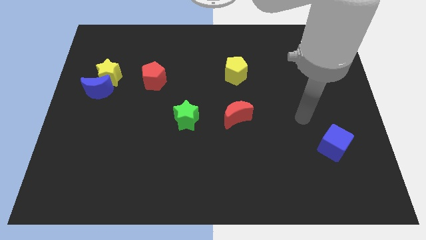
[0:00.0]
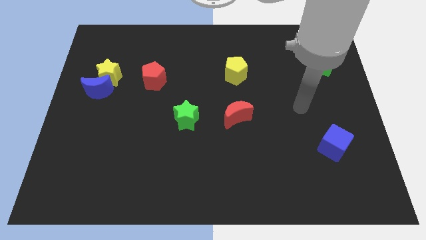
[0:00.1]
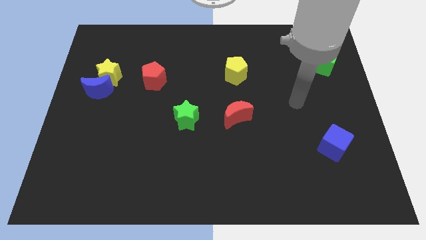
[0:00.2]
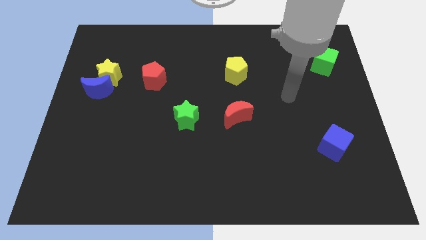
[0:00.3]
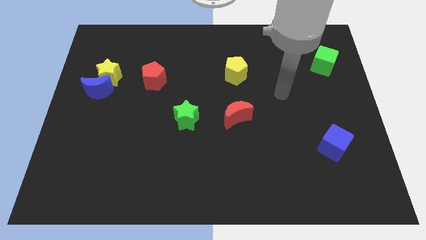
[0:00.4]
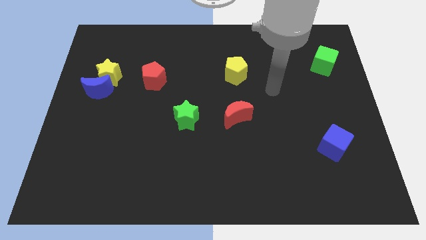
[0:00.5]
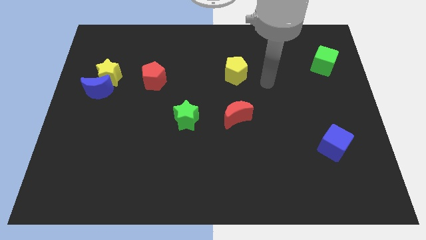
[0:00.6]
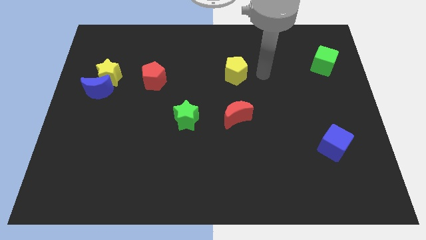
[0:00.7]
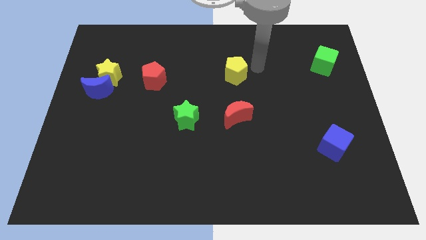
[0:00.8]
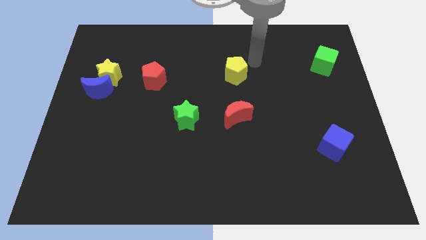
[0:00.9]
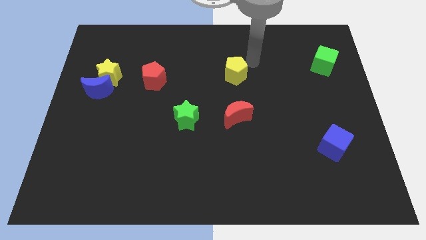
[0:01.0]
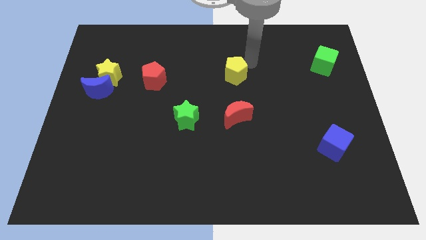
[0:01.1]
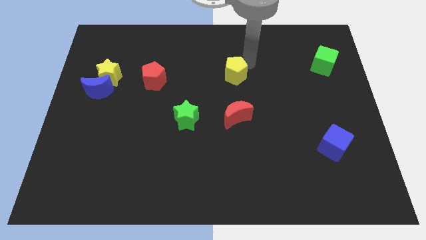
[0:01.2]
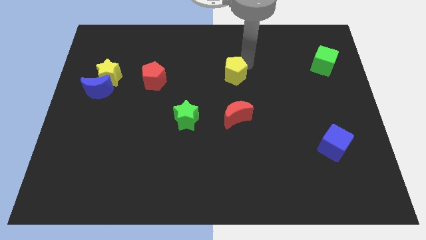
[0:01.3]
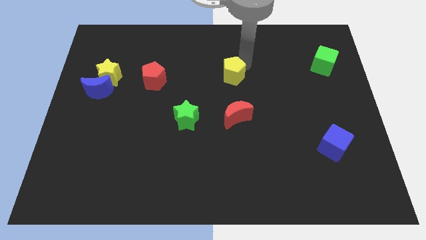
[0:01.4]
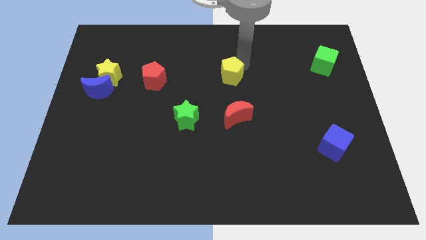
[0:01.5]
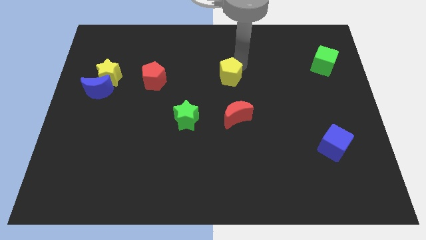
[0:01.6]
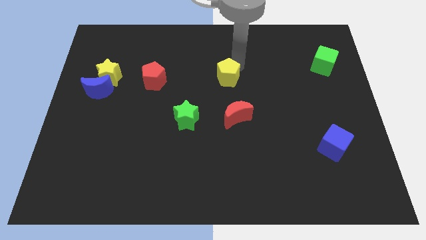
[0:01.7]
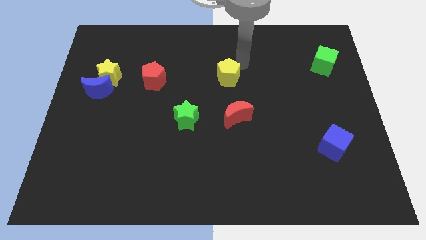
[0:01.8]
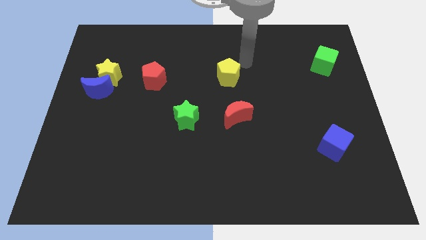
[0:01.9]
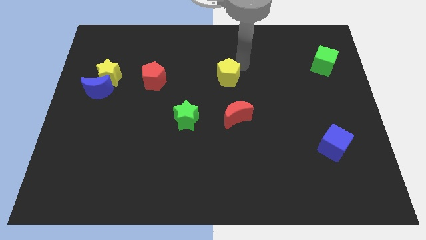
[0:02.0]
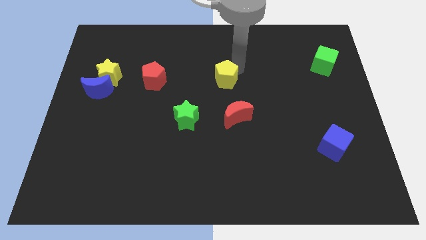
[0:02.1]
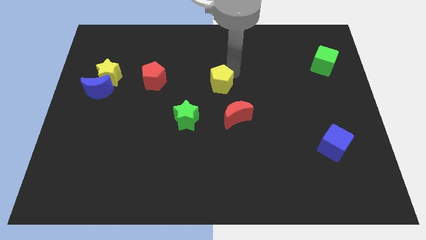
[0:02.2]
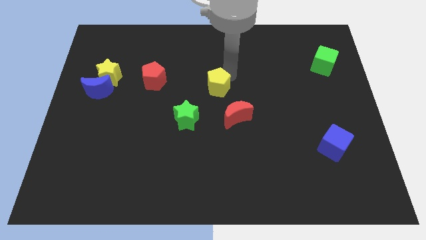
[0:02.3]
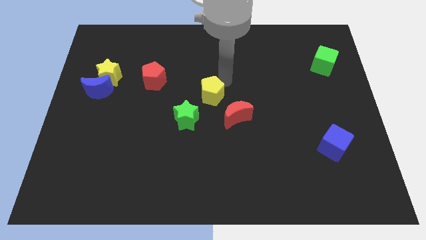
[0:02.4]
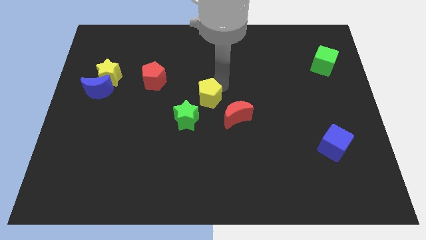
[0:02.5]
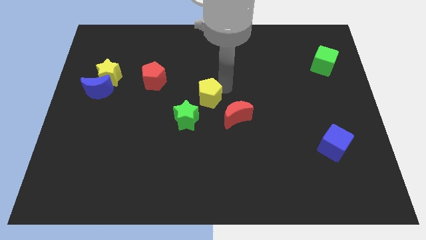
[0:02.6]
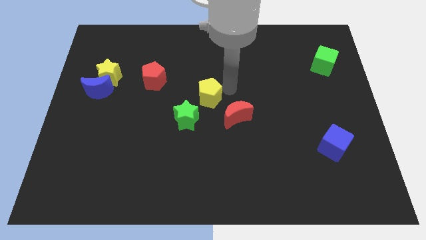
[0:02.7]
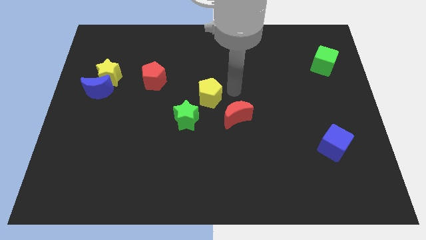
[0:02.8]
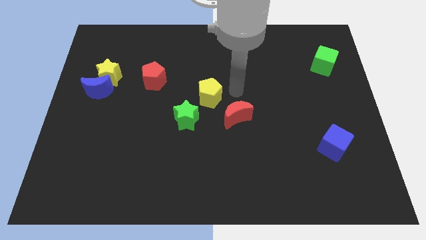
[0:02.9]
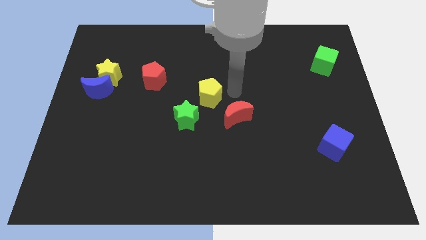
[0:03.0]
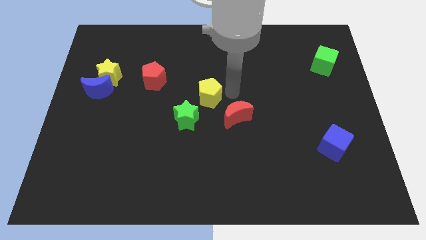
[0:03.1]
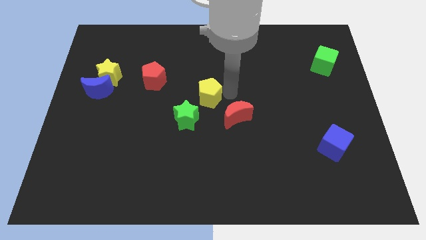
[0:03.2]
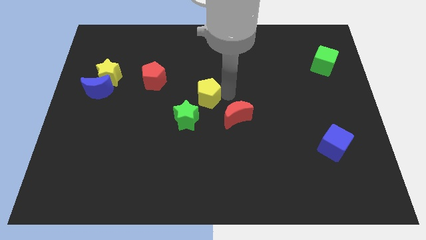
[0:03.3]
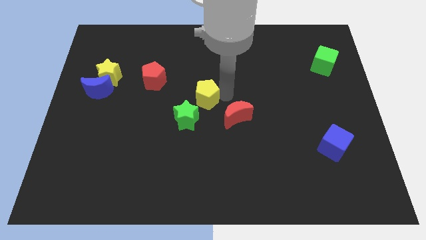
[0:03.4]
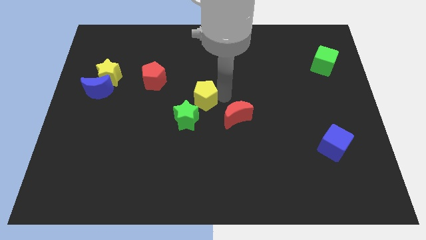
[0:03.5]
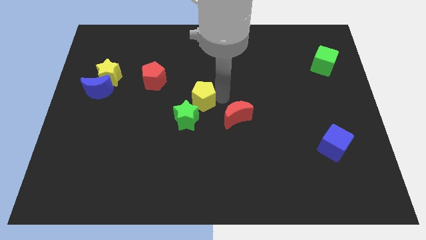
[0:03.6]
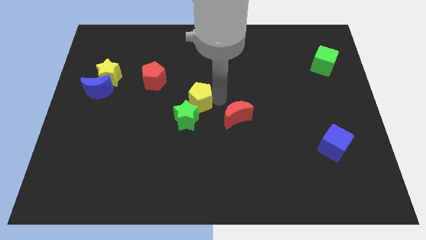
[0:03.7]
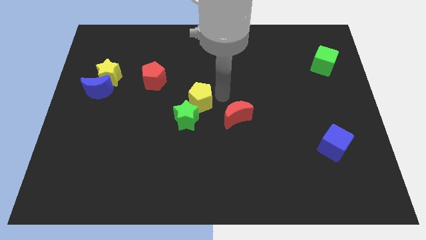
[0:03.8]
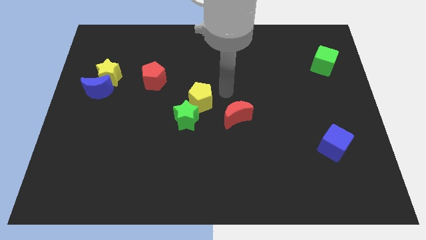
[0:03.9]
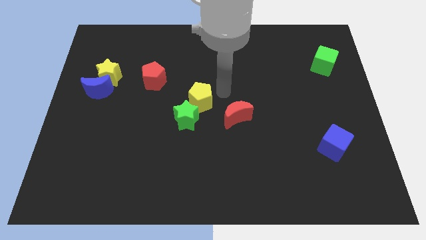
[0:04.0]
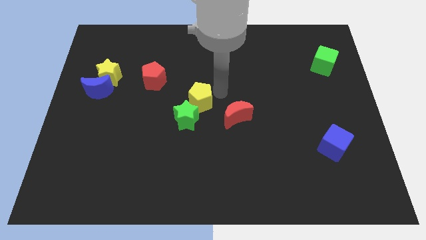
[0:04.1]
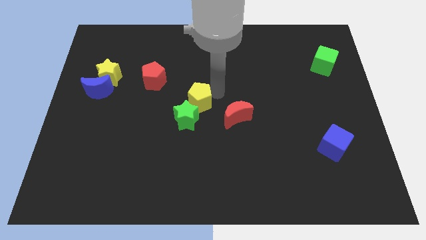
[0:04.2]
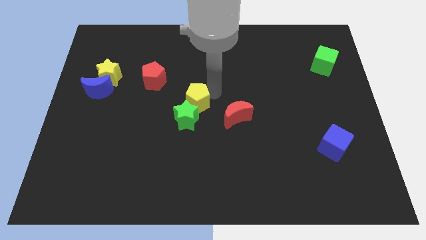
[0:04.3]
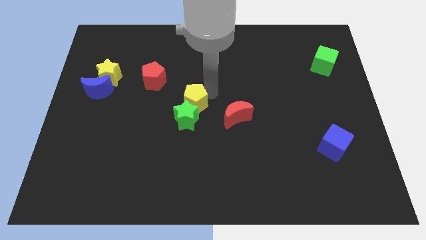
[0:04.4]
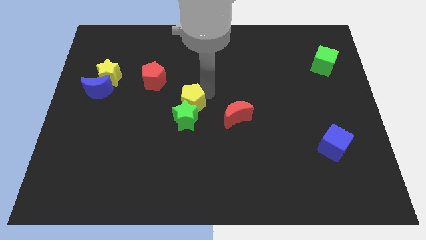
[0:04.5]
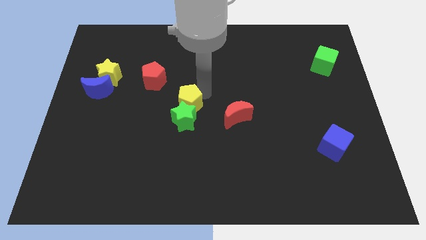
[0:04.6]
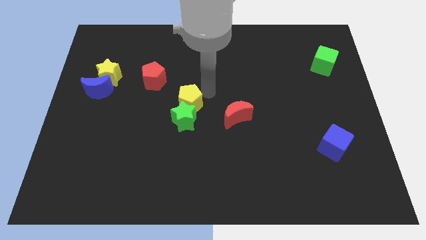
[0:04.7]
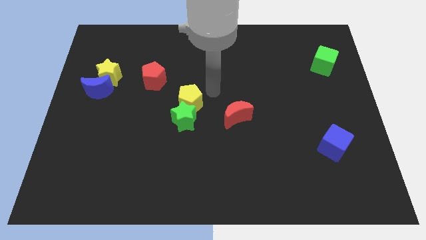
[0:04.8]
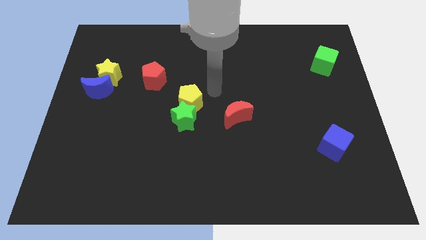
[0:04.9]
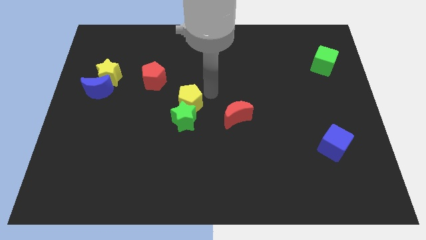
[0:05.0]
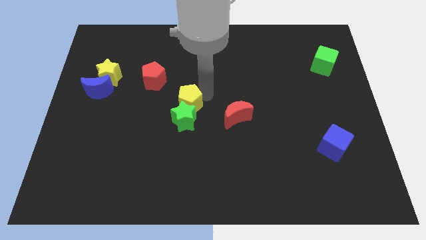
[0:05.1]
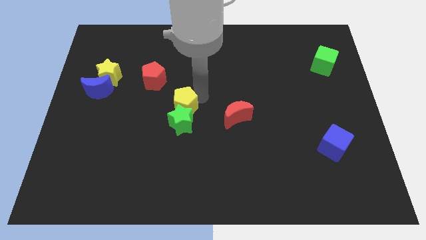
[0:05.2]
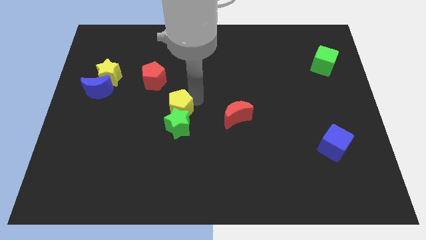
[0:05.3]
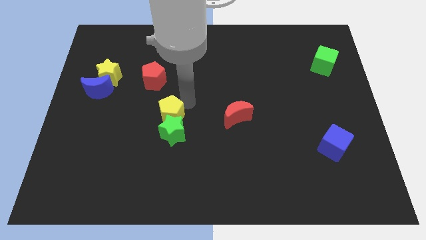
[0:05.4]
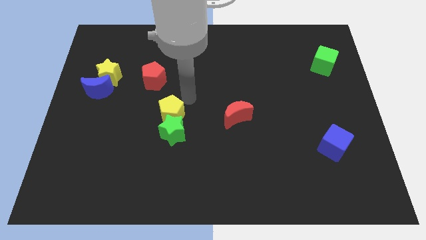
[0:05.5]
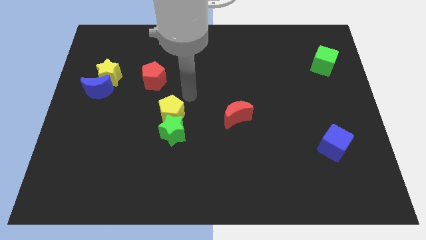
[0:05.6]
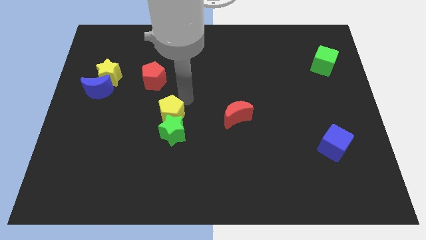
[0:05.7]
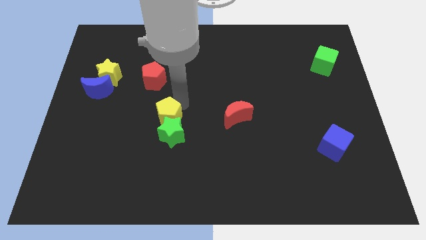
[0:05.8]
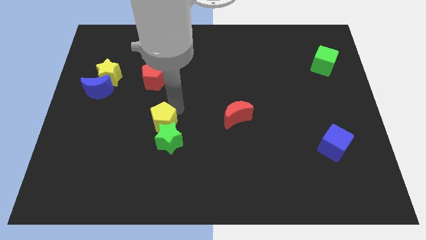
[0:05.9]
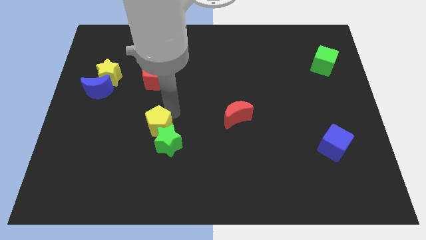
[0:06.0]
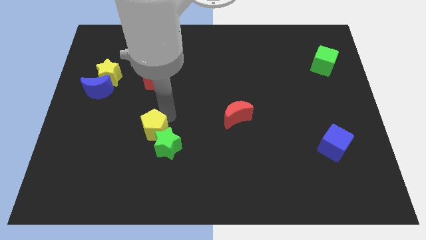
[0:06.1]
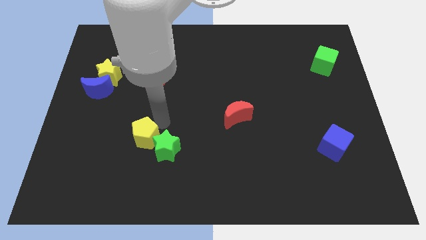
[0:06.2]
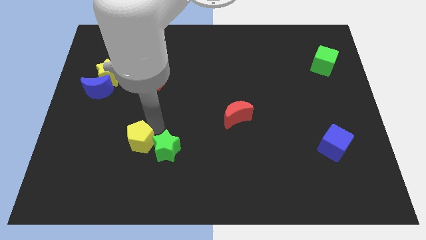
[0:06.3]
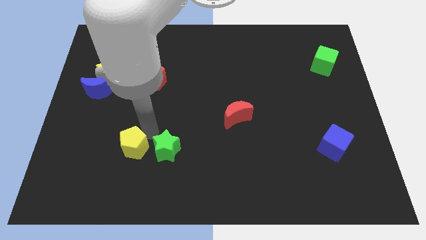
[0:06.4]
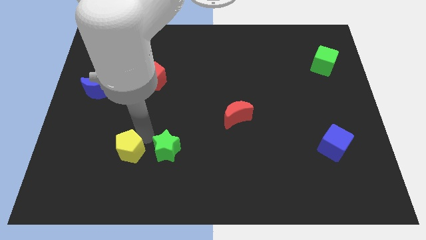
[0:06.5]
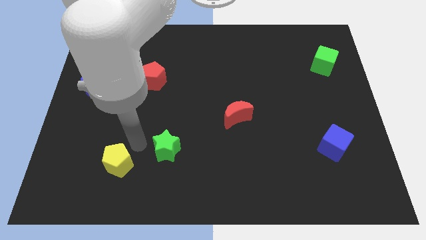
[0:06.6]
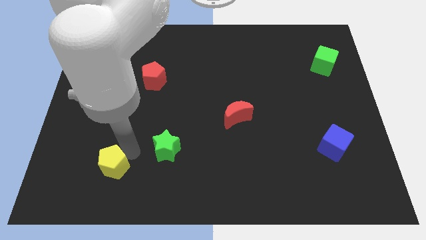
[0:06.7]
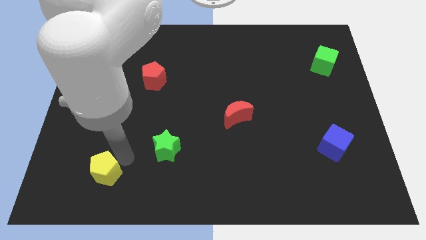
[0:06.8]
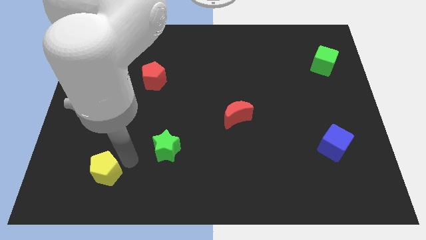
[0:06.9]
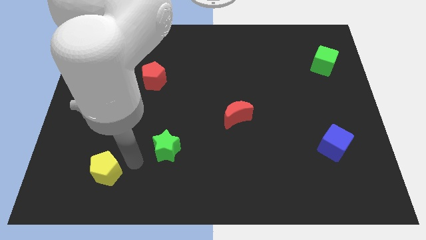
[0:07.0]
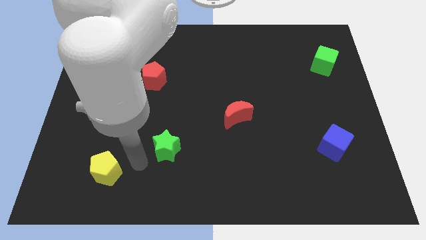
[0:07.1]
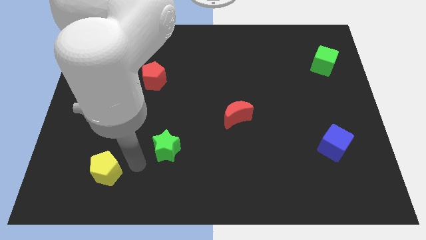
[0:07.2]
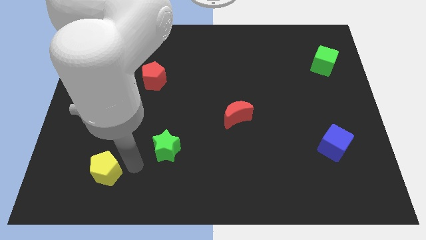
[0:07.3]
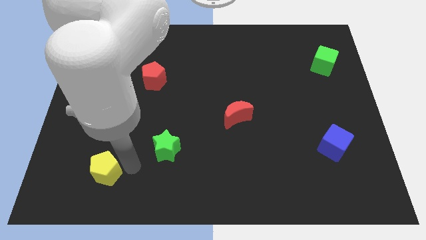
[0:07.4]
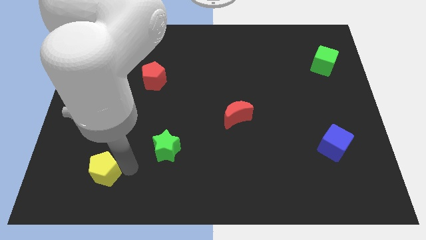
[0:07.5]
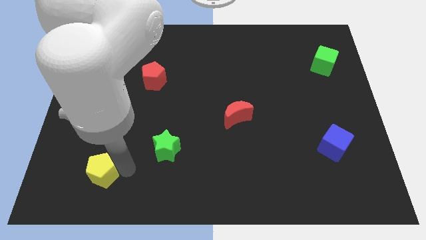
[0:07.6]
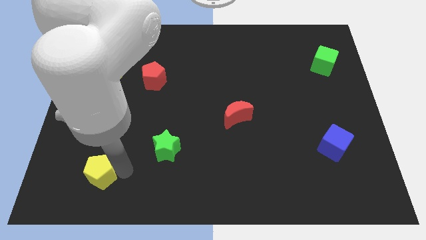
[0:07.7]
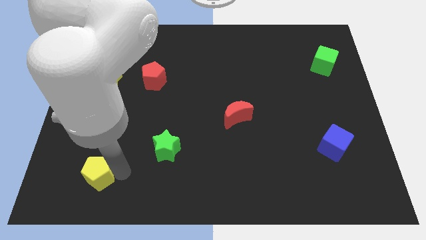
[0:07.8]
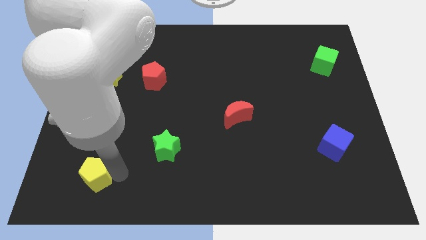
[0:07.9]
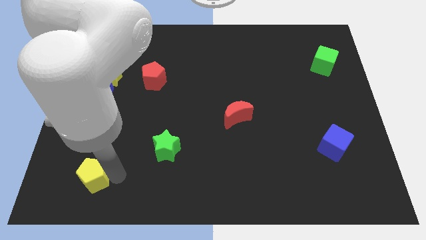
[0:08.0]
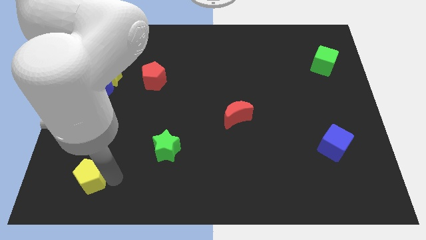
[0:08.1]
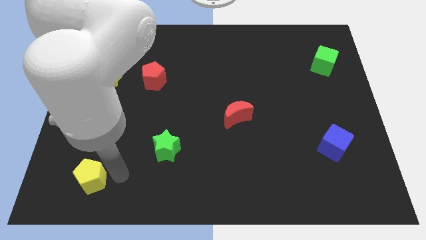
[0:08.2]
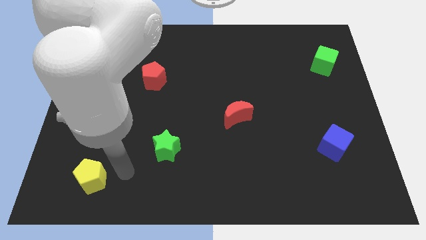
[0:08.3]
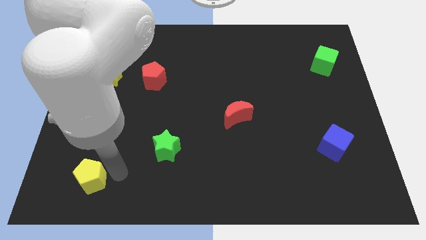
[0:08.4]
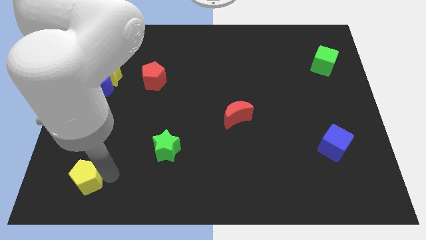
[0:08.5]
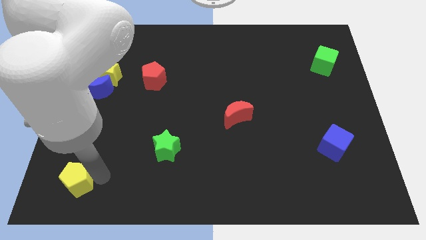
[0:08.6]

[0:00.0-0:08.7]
push the yellow pentagon to the bottom left of the board
